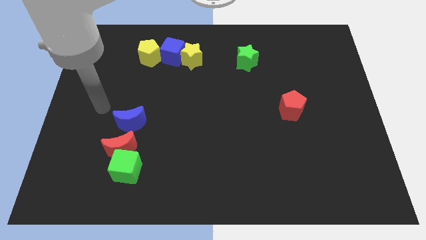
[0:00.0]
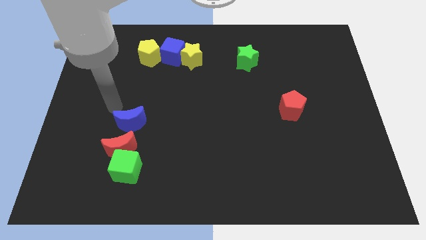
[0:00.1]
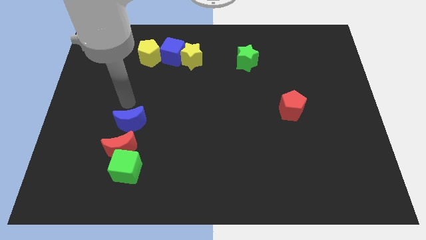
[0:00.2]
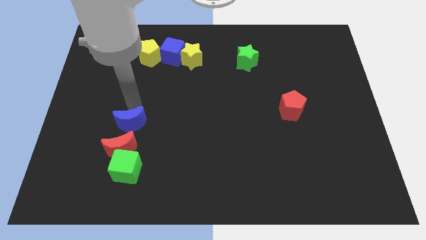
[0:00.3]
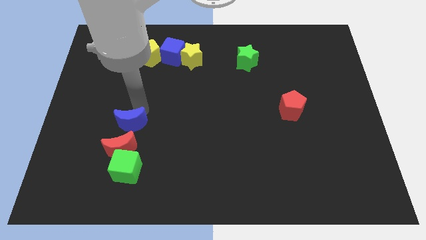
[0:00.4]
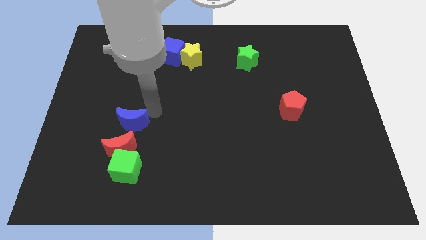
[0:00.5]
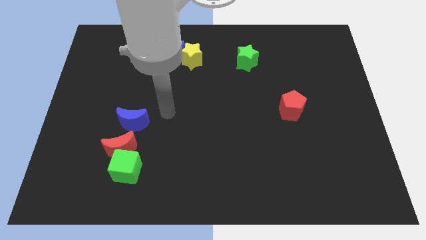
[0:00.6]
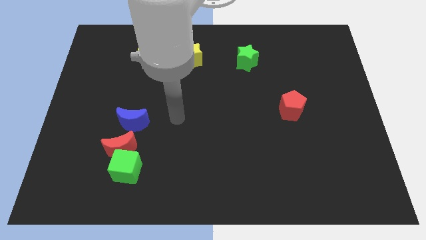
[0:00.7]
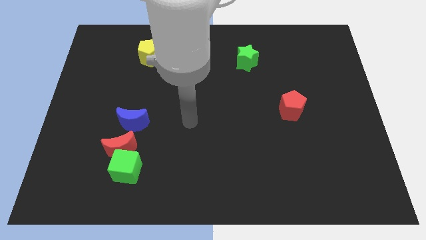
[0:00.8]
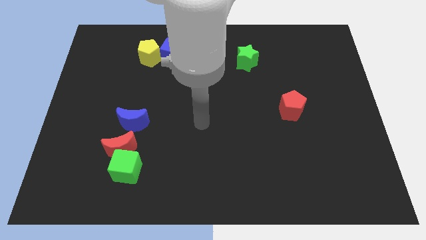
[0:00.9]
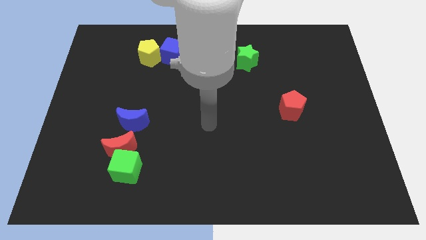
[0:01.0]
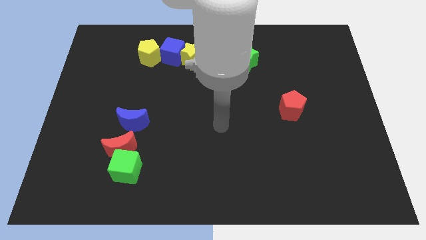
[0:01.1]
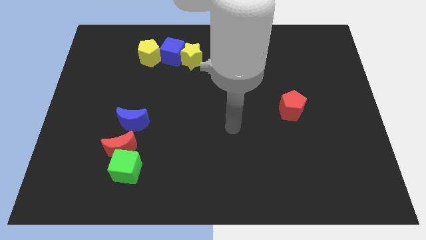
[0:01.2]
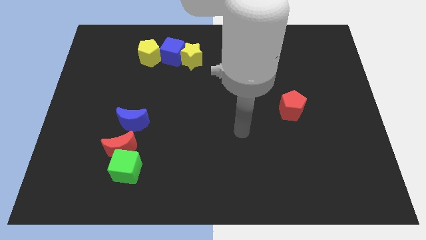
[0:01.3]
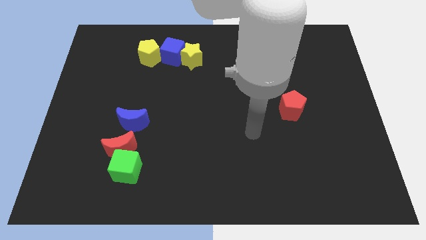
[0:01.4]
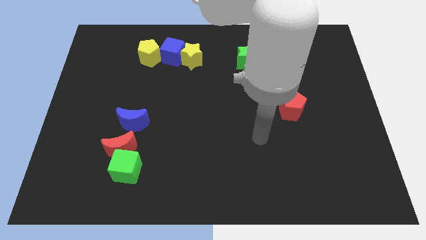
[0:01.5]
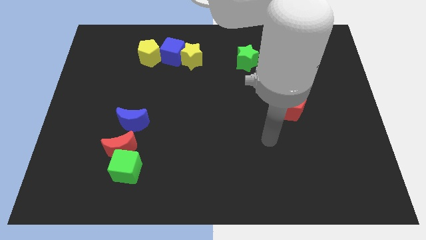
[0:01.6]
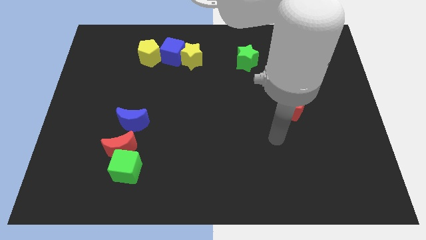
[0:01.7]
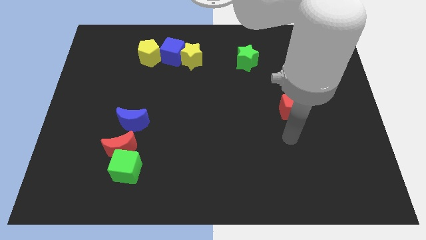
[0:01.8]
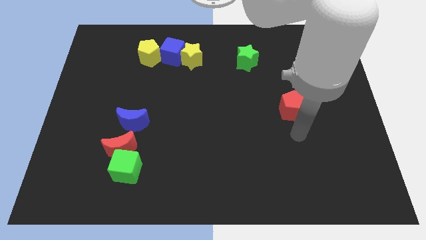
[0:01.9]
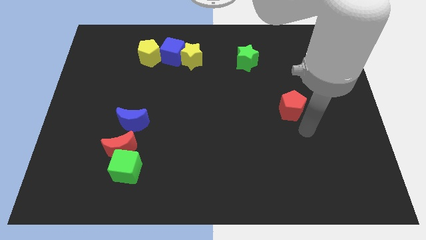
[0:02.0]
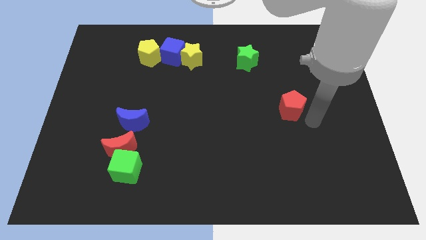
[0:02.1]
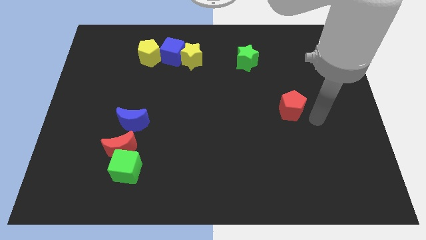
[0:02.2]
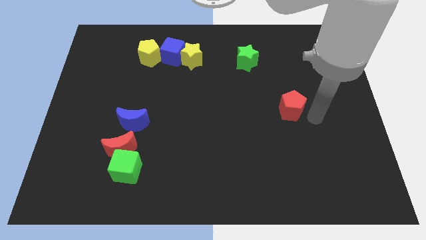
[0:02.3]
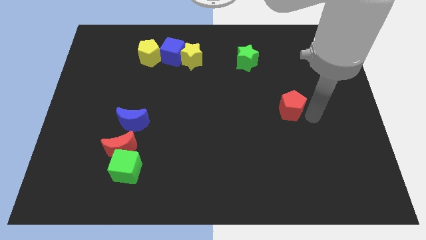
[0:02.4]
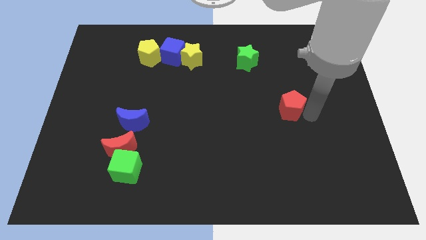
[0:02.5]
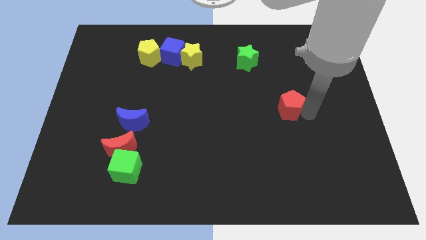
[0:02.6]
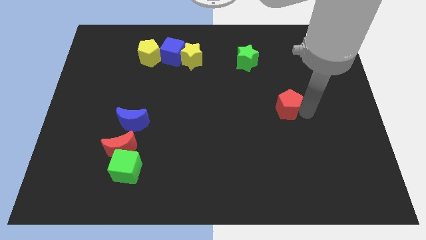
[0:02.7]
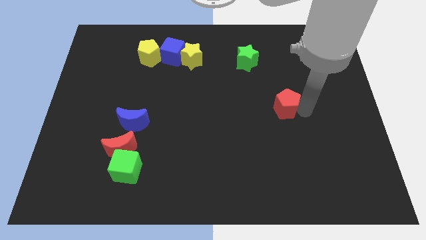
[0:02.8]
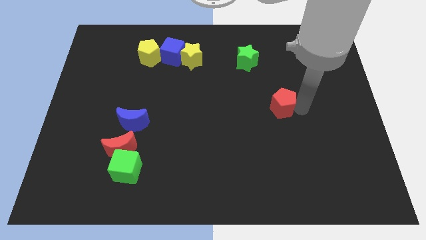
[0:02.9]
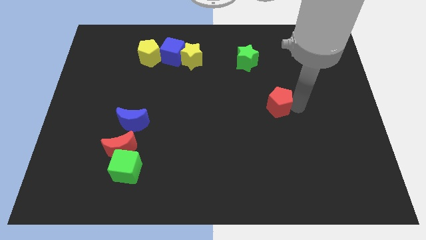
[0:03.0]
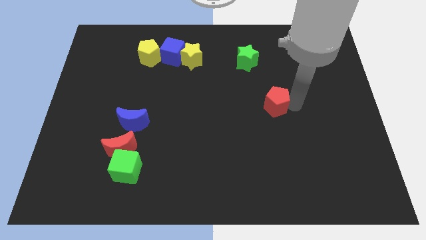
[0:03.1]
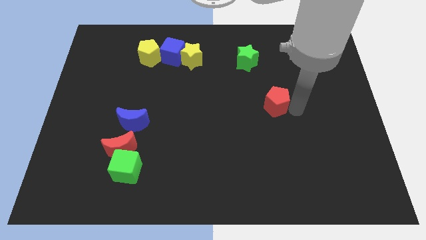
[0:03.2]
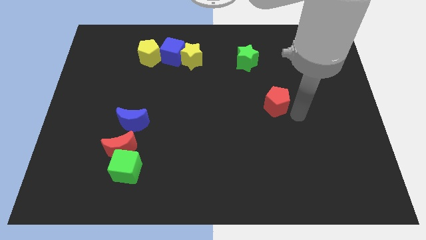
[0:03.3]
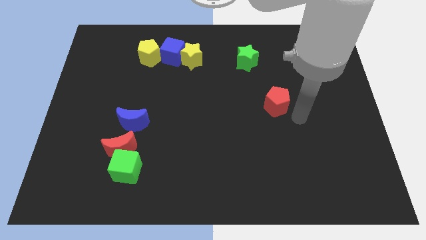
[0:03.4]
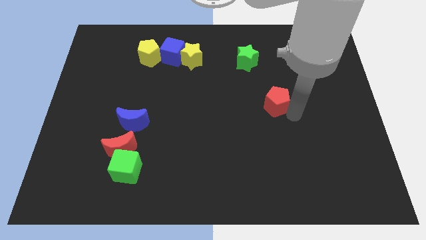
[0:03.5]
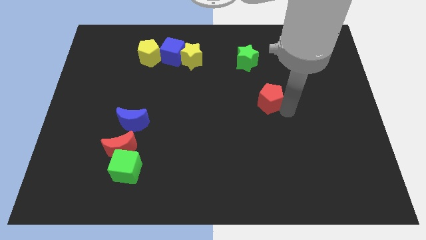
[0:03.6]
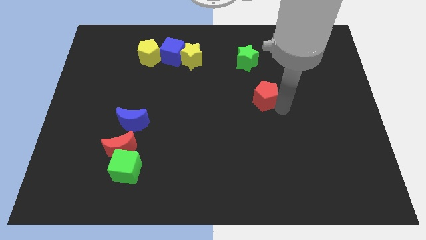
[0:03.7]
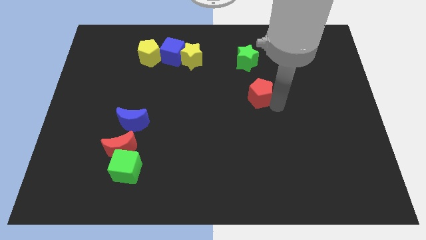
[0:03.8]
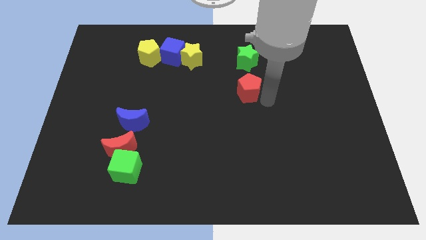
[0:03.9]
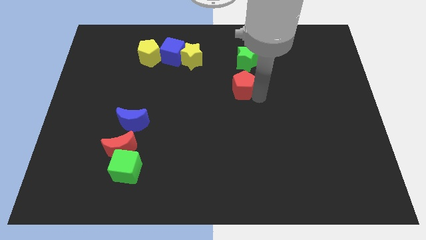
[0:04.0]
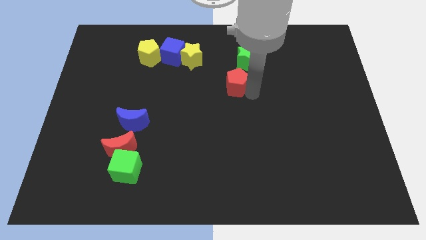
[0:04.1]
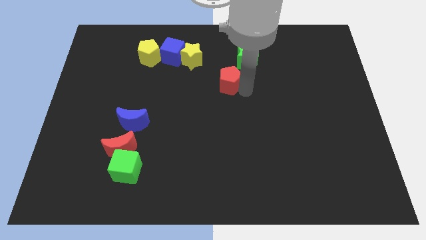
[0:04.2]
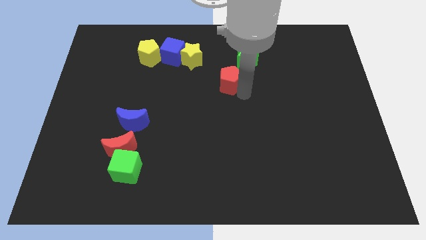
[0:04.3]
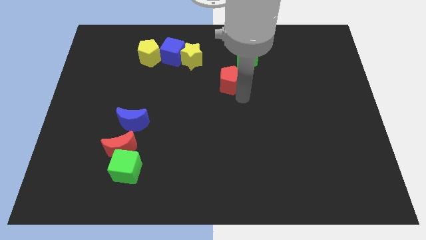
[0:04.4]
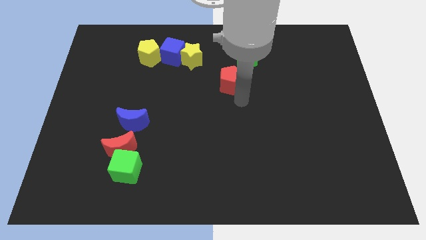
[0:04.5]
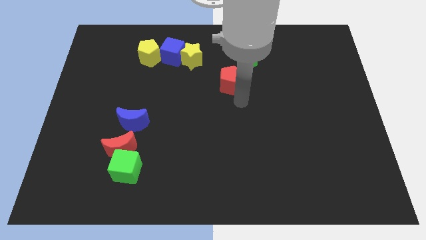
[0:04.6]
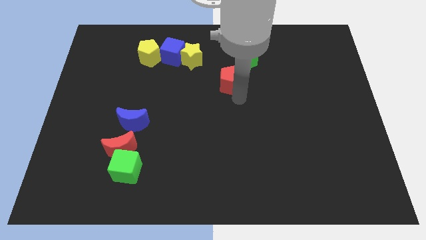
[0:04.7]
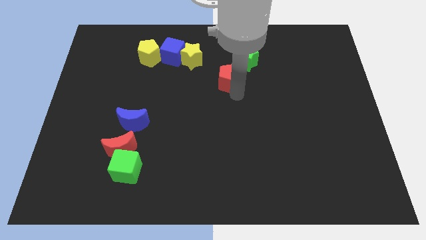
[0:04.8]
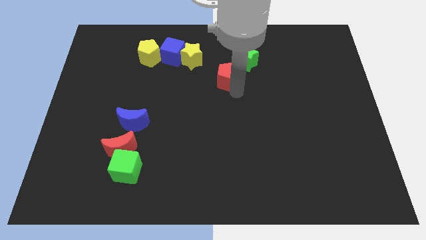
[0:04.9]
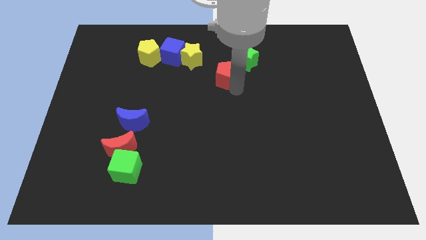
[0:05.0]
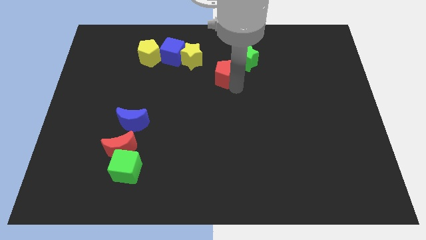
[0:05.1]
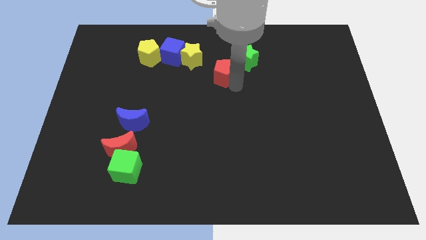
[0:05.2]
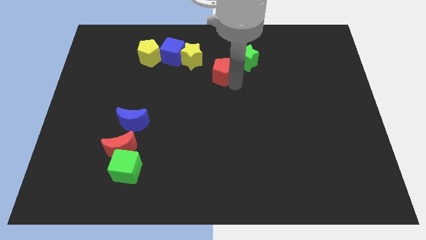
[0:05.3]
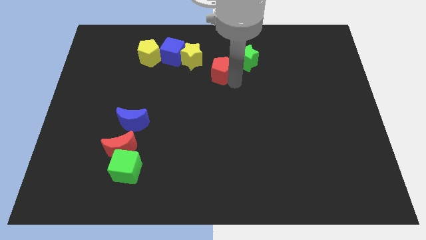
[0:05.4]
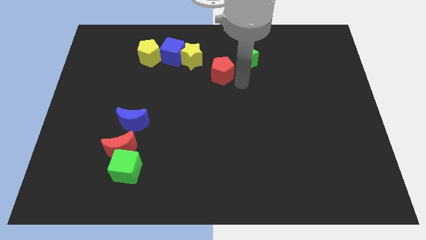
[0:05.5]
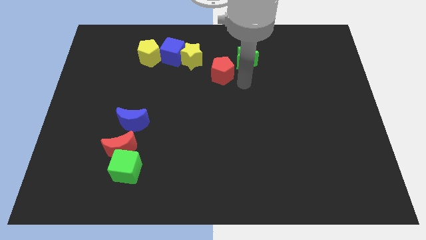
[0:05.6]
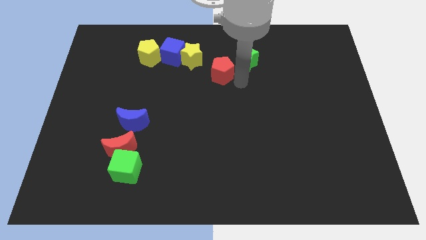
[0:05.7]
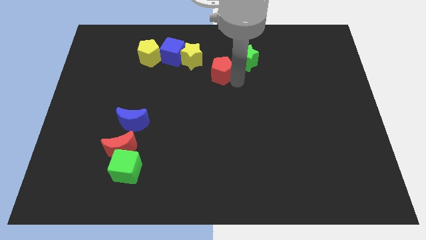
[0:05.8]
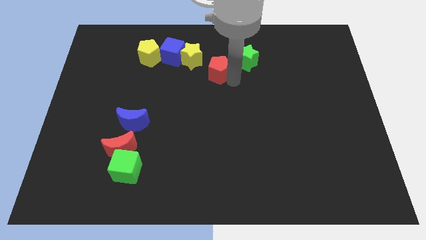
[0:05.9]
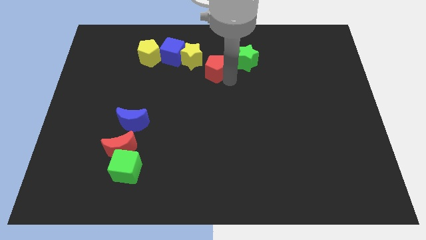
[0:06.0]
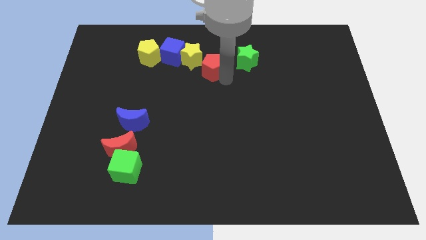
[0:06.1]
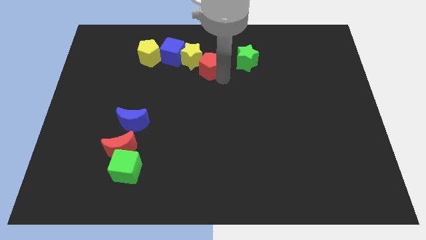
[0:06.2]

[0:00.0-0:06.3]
push the red pentagon towards the yellow star

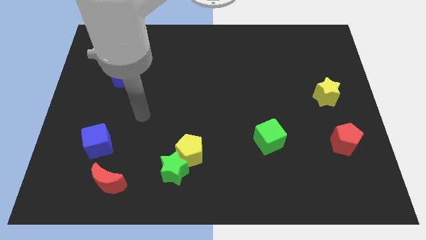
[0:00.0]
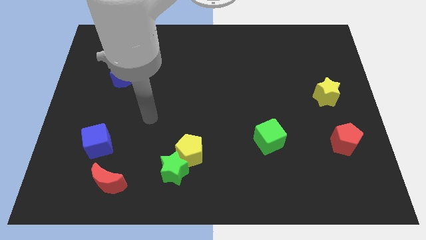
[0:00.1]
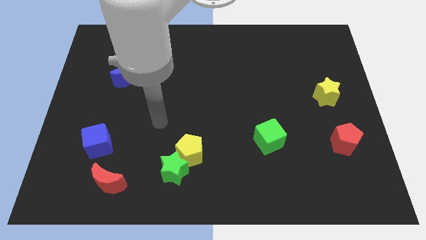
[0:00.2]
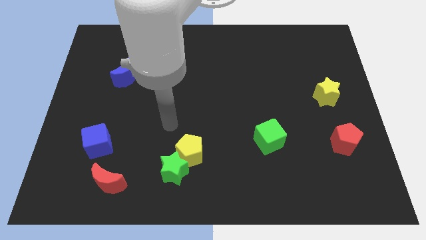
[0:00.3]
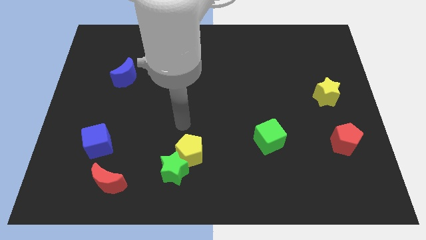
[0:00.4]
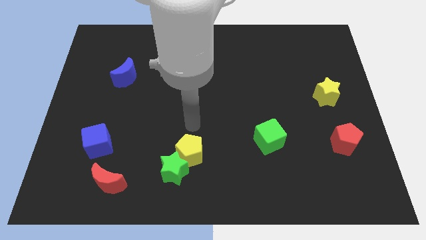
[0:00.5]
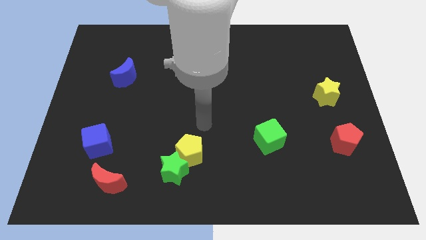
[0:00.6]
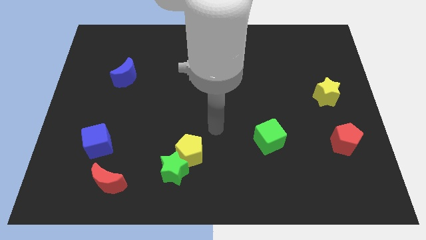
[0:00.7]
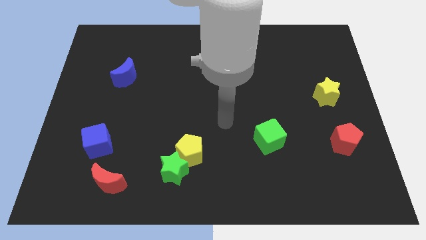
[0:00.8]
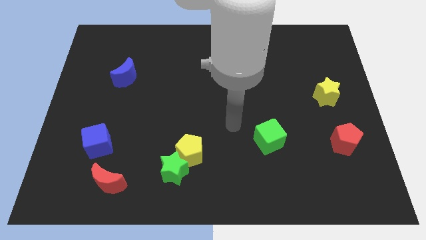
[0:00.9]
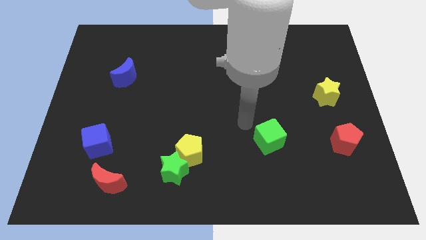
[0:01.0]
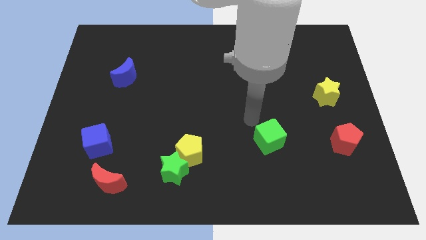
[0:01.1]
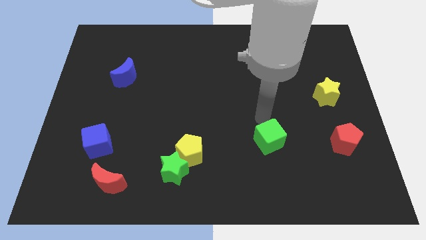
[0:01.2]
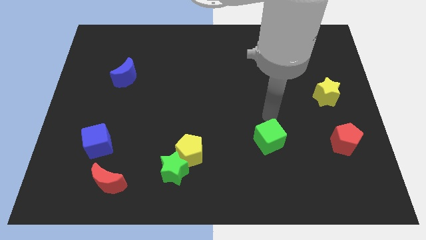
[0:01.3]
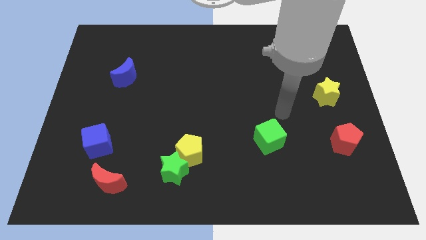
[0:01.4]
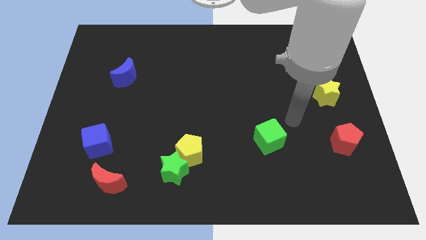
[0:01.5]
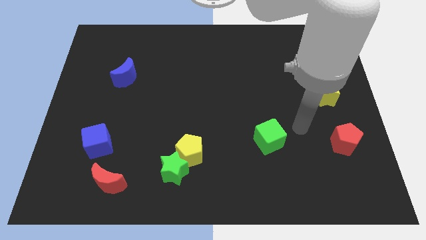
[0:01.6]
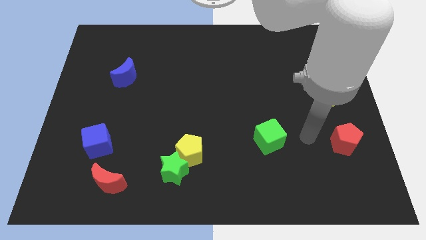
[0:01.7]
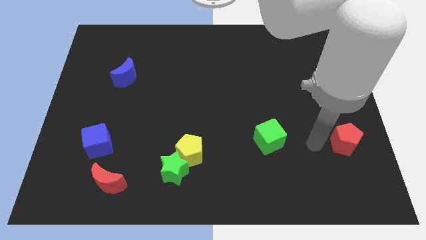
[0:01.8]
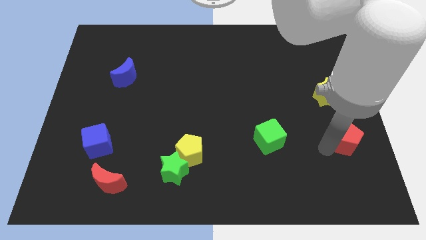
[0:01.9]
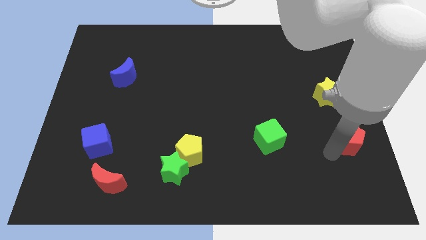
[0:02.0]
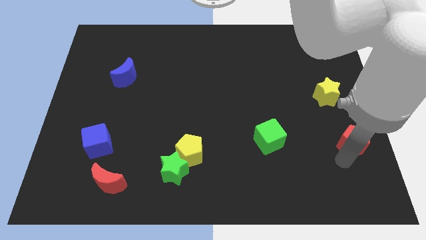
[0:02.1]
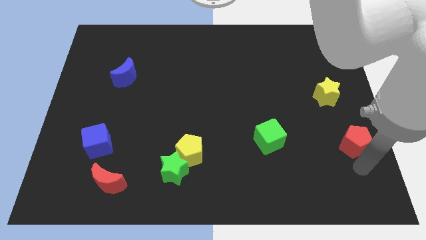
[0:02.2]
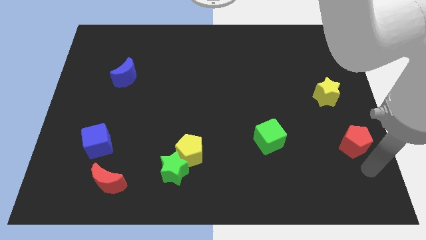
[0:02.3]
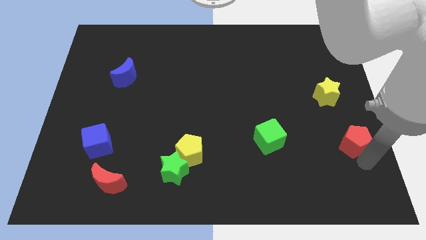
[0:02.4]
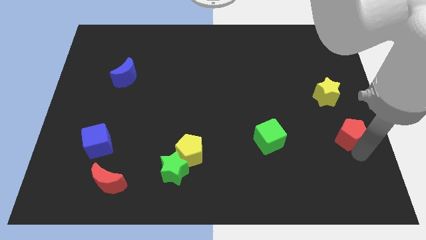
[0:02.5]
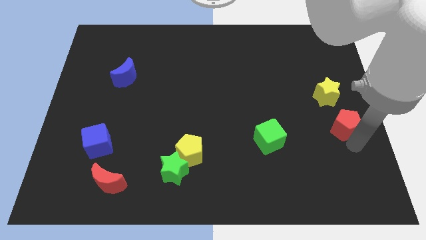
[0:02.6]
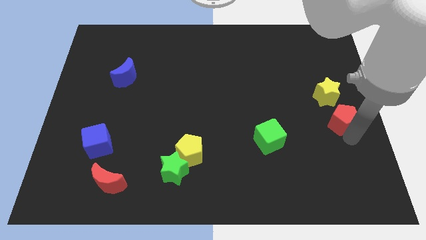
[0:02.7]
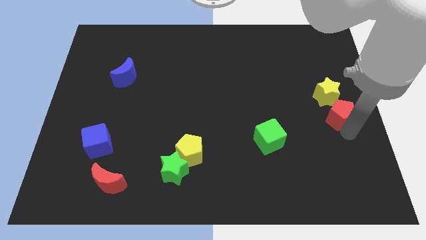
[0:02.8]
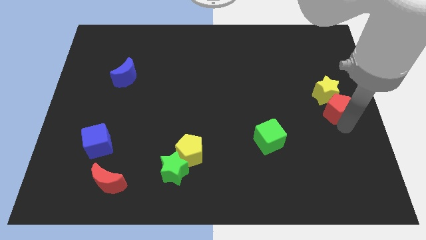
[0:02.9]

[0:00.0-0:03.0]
move the red pentagon towards the yellow star
